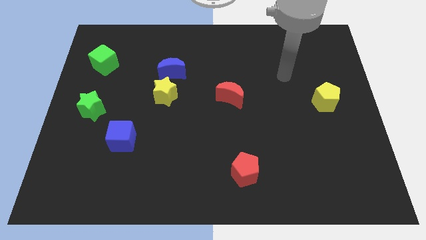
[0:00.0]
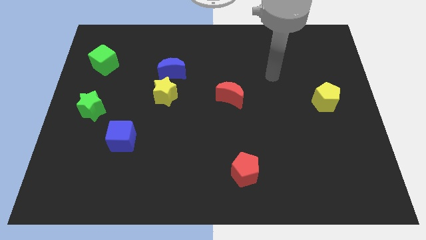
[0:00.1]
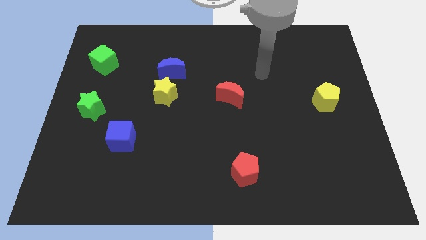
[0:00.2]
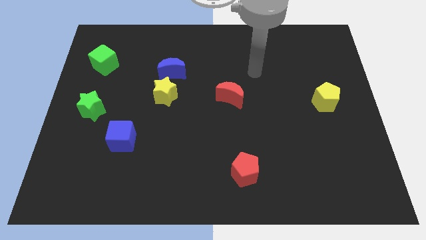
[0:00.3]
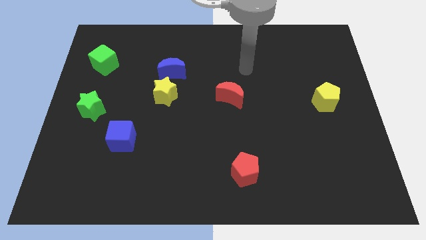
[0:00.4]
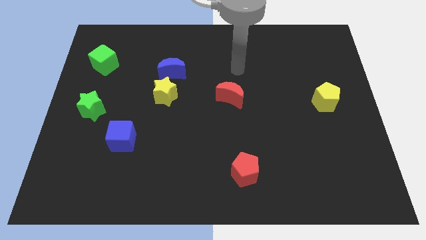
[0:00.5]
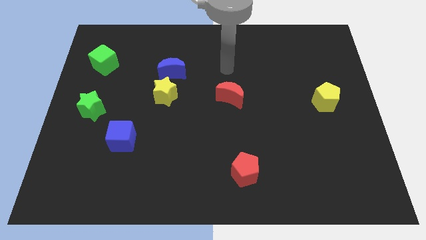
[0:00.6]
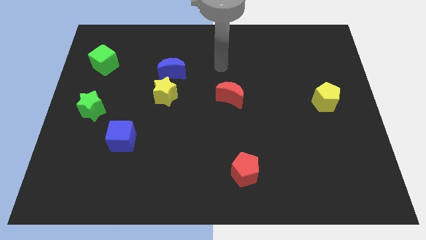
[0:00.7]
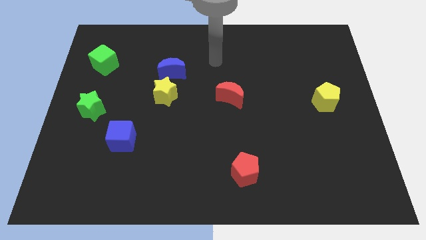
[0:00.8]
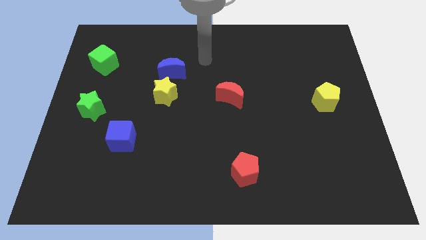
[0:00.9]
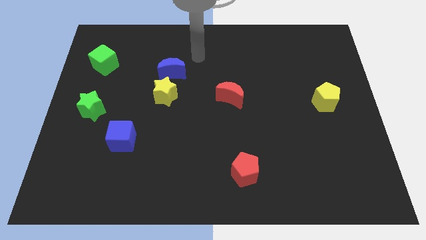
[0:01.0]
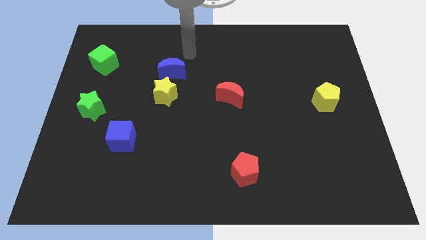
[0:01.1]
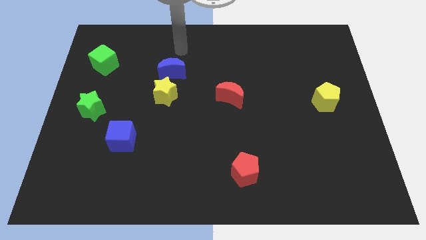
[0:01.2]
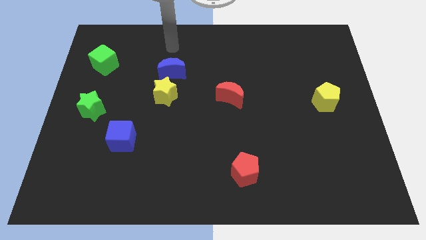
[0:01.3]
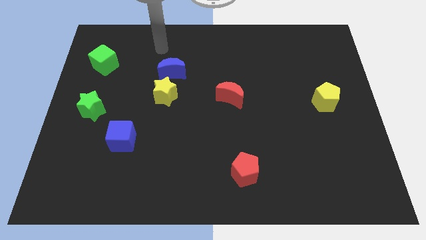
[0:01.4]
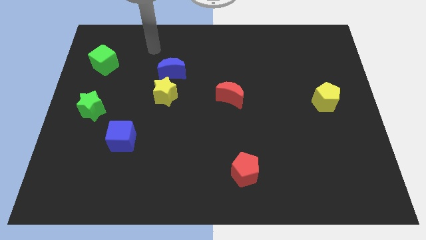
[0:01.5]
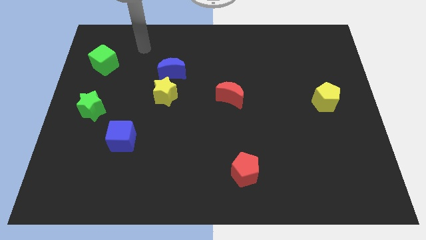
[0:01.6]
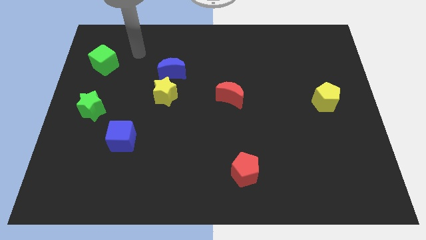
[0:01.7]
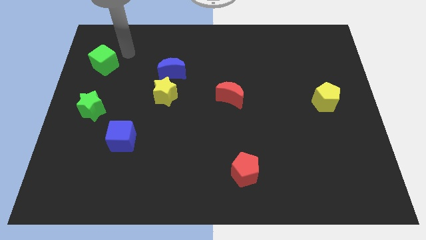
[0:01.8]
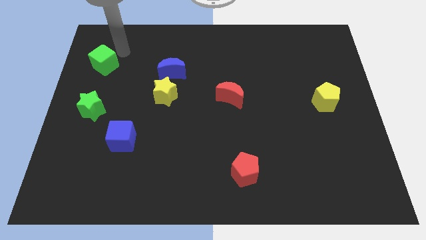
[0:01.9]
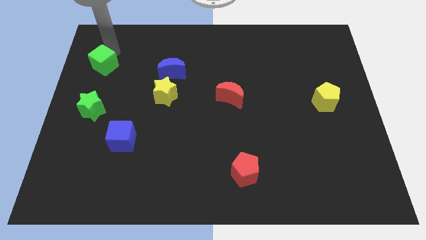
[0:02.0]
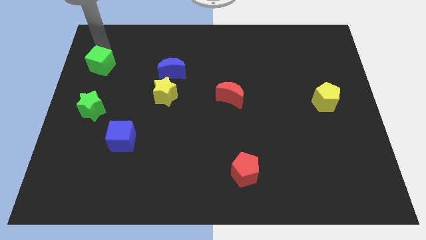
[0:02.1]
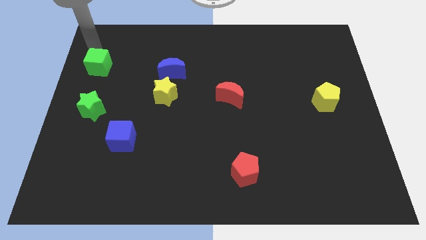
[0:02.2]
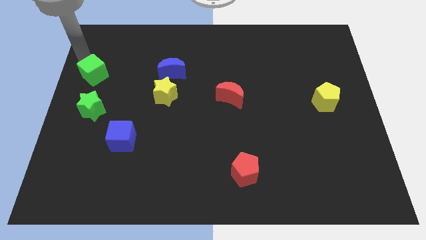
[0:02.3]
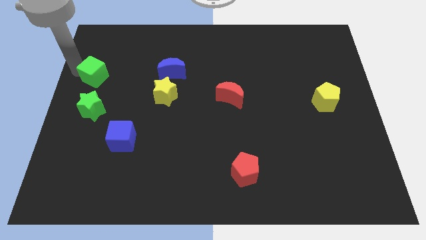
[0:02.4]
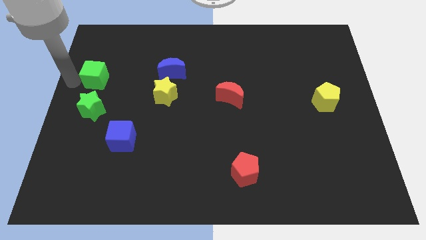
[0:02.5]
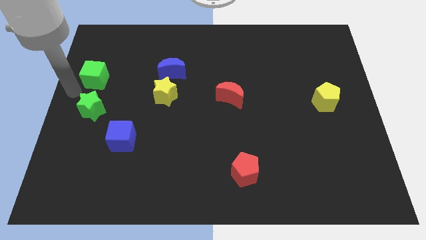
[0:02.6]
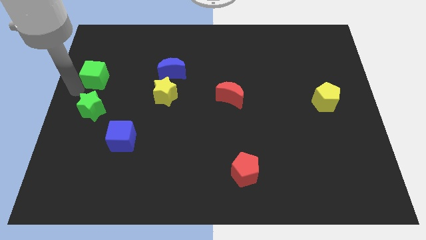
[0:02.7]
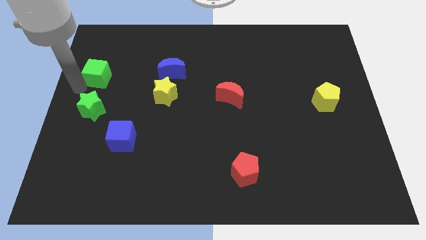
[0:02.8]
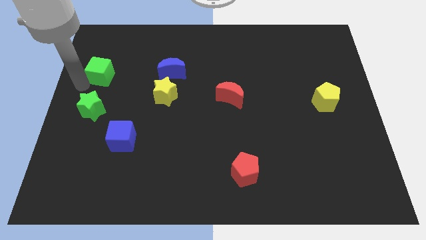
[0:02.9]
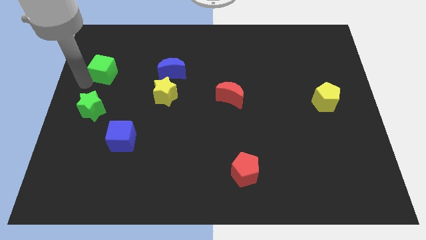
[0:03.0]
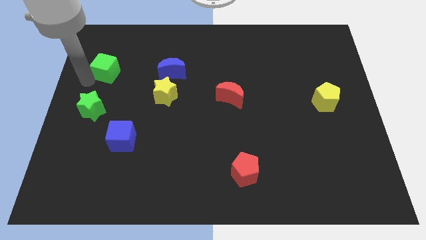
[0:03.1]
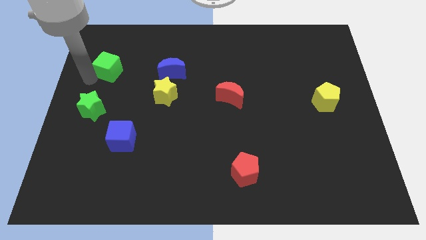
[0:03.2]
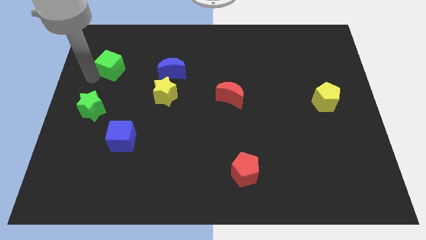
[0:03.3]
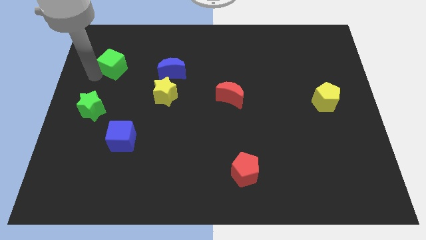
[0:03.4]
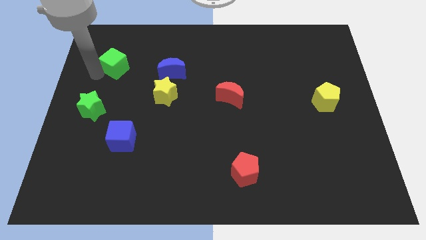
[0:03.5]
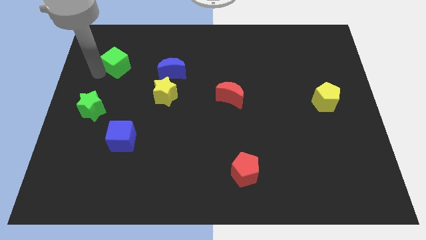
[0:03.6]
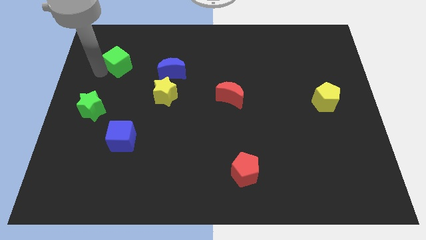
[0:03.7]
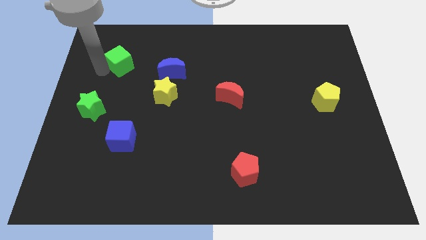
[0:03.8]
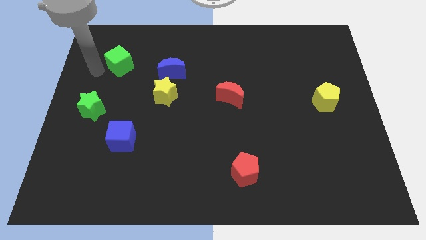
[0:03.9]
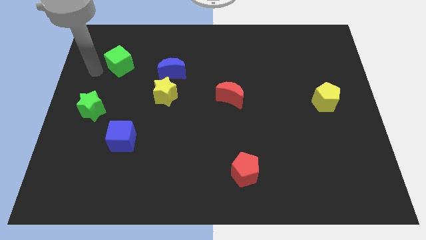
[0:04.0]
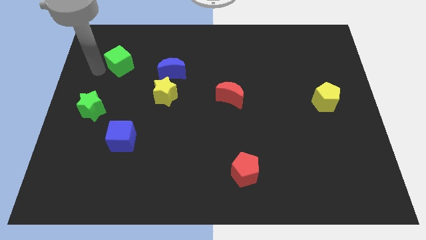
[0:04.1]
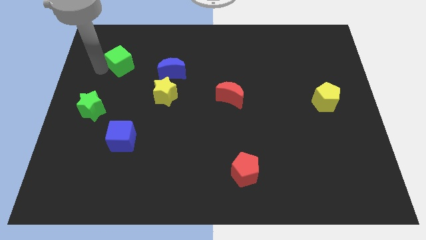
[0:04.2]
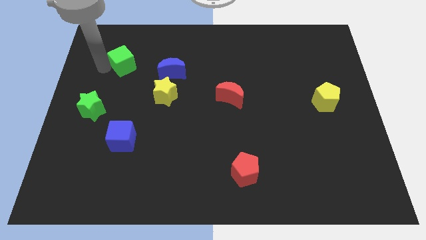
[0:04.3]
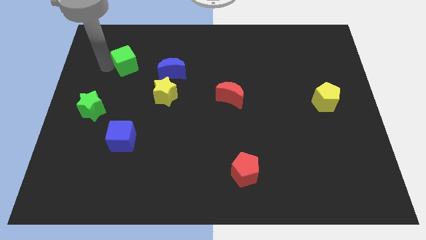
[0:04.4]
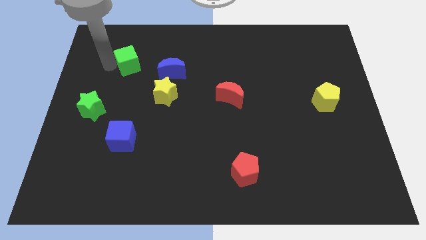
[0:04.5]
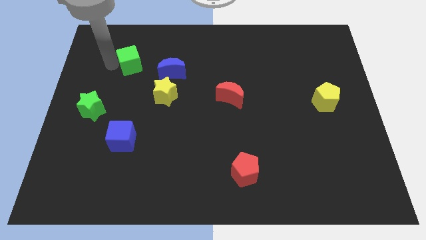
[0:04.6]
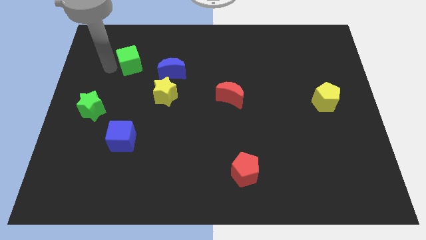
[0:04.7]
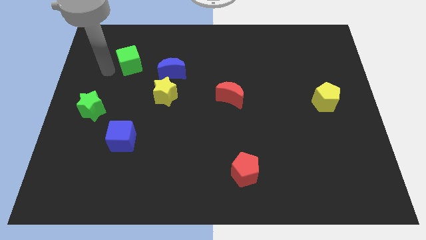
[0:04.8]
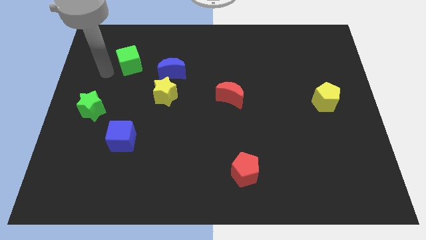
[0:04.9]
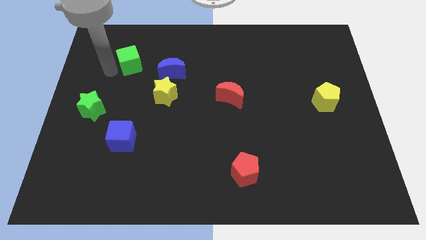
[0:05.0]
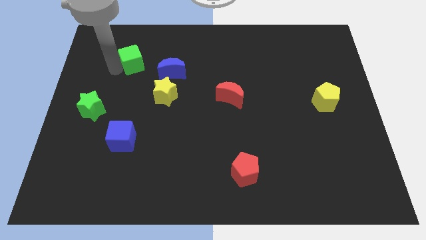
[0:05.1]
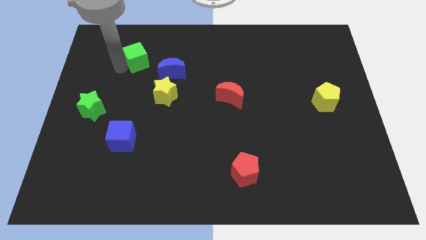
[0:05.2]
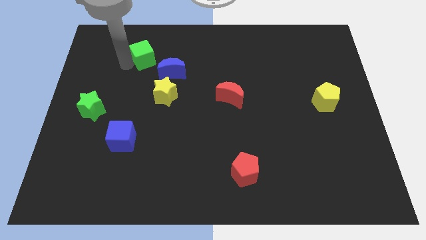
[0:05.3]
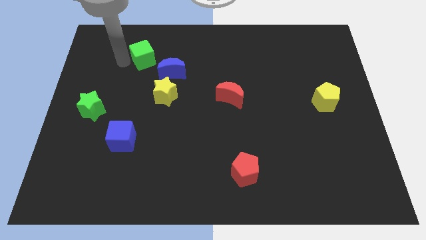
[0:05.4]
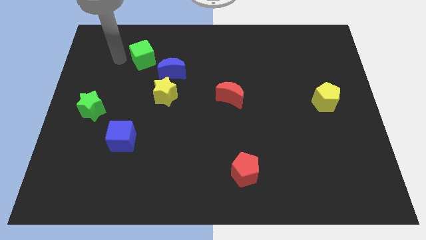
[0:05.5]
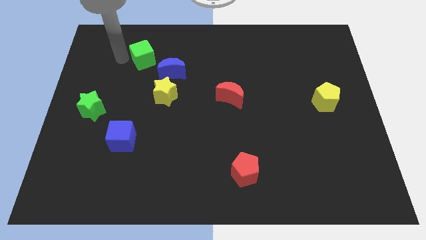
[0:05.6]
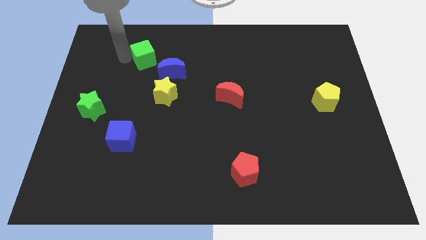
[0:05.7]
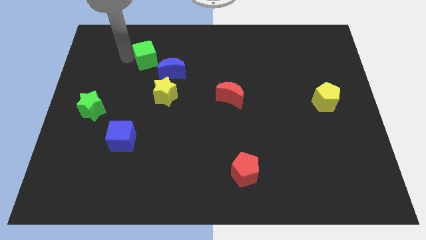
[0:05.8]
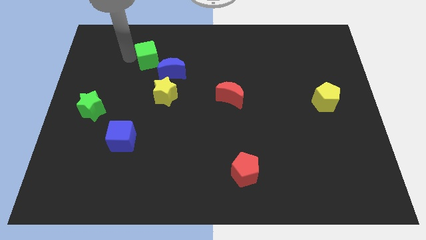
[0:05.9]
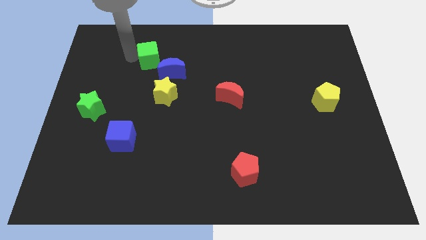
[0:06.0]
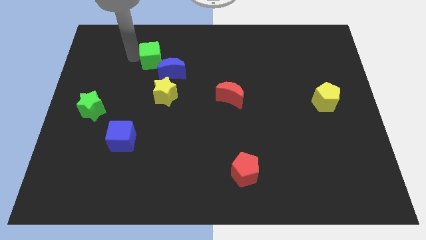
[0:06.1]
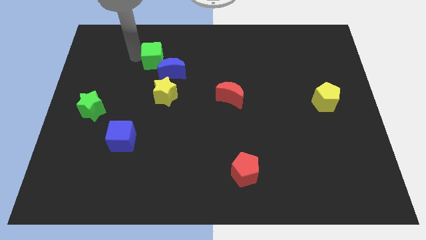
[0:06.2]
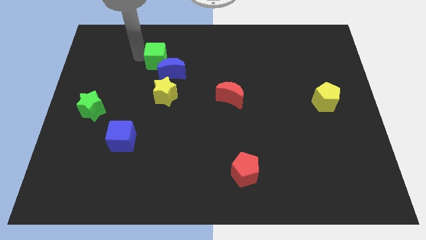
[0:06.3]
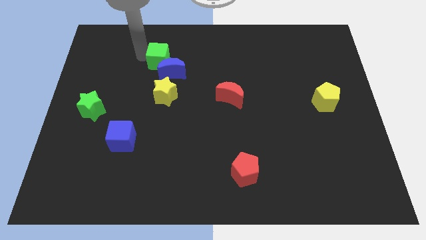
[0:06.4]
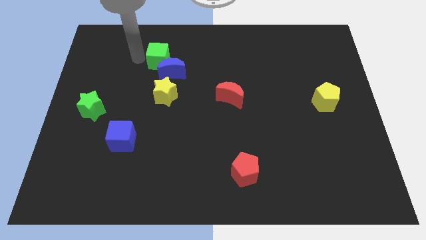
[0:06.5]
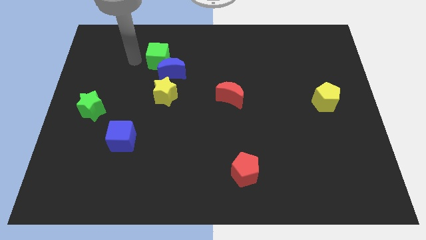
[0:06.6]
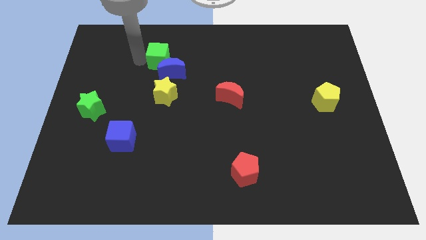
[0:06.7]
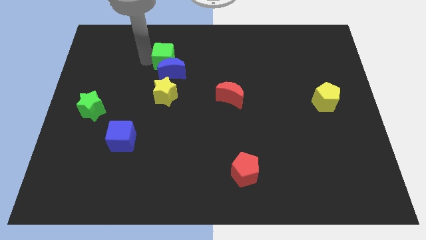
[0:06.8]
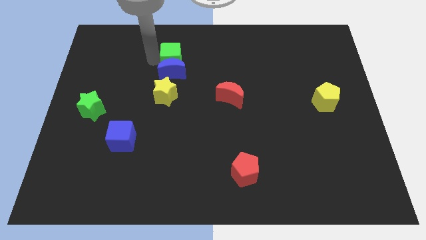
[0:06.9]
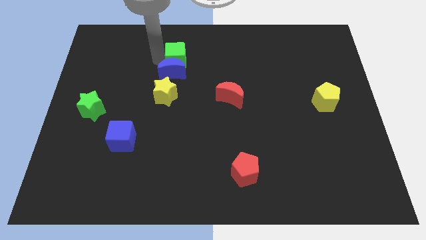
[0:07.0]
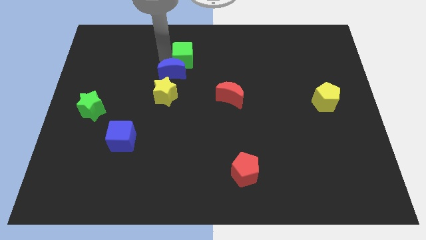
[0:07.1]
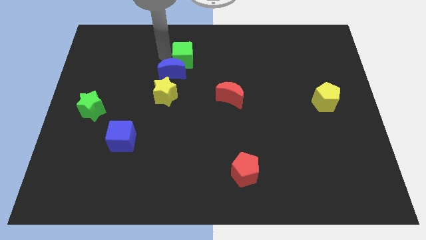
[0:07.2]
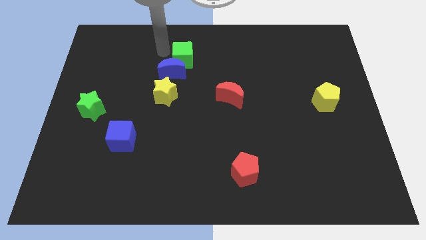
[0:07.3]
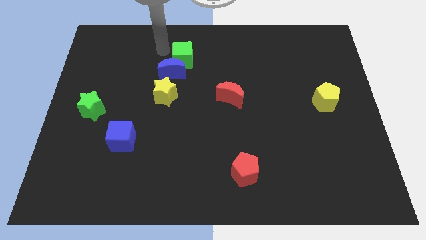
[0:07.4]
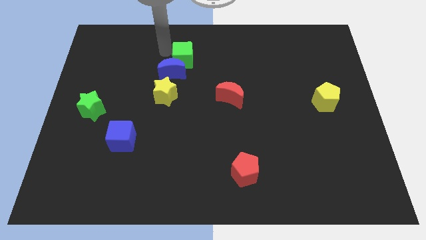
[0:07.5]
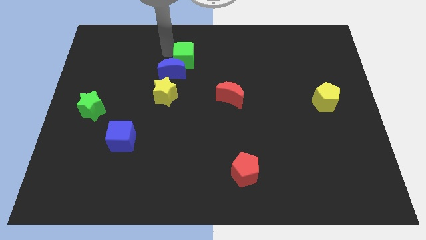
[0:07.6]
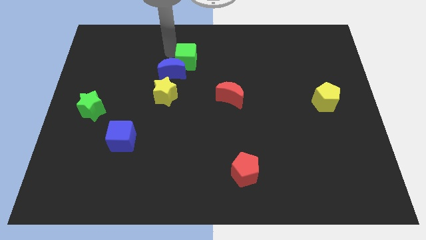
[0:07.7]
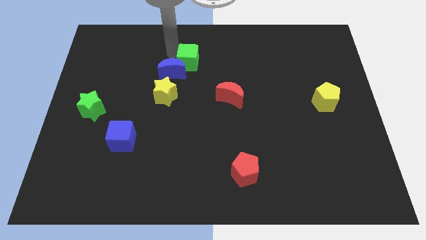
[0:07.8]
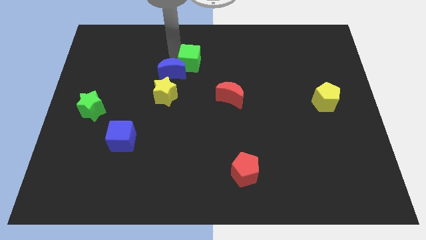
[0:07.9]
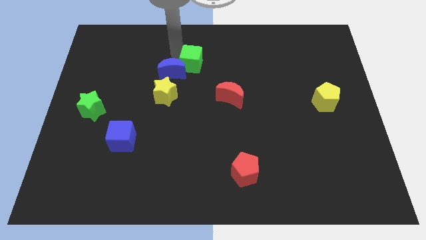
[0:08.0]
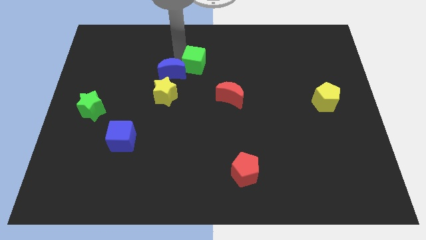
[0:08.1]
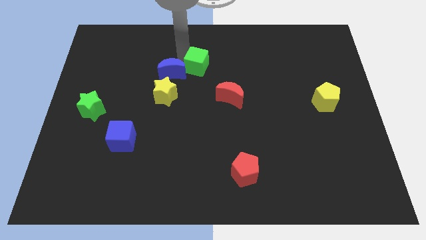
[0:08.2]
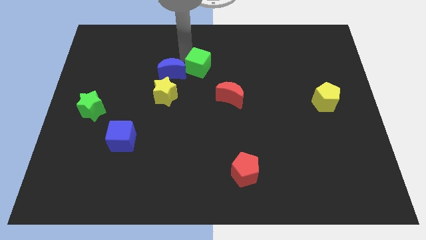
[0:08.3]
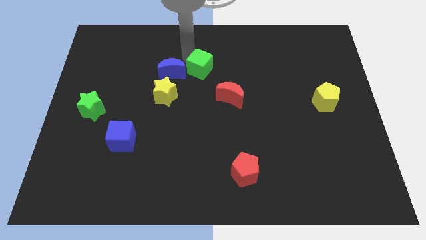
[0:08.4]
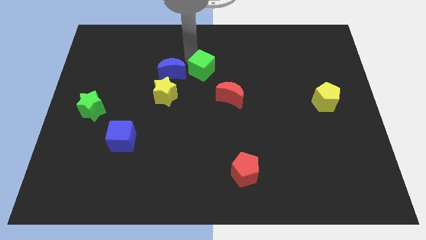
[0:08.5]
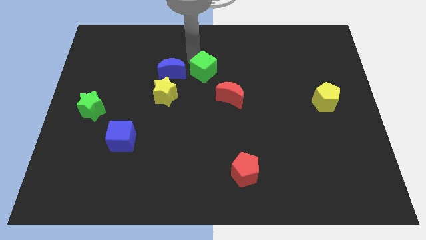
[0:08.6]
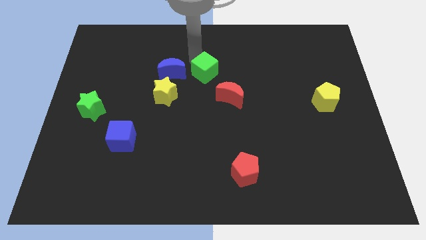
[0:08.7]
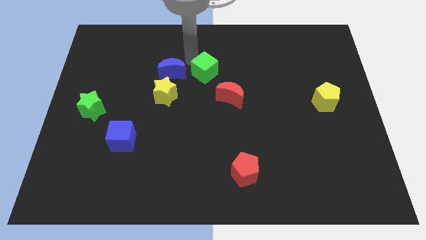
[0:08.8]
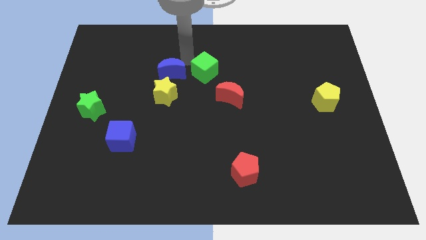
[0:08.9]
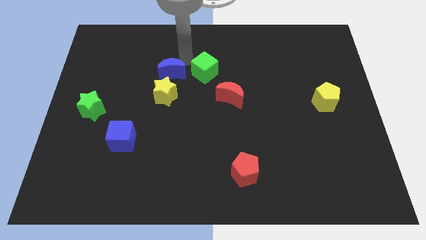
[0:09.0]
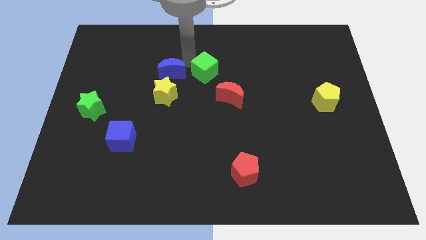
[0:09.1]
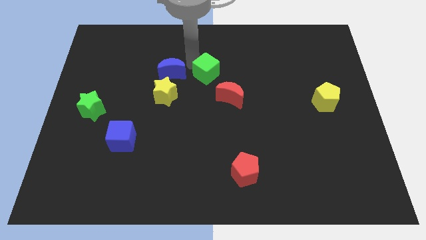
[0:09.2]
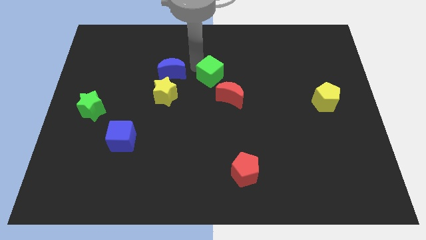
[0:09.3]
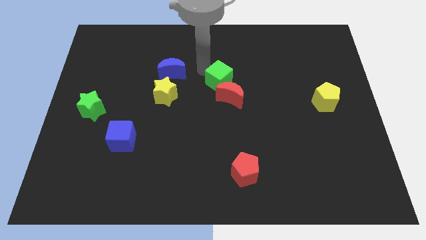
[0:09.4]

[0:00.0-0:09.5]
slide the green cube close to the red moon
